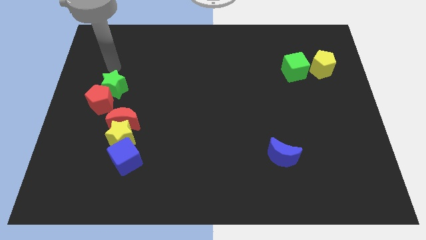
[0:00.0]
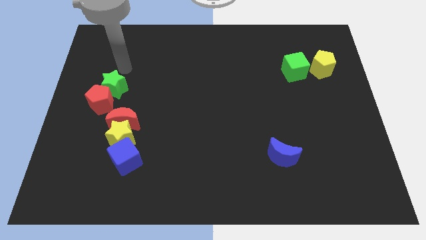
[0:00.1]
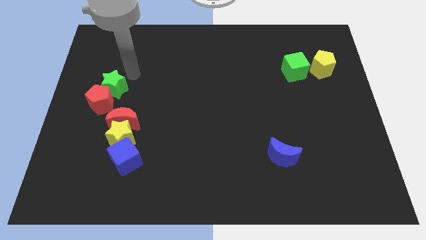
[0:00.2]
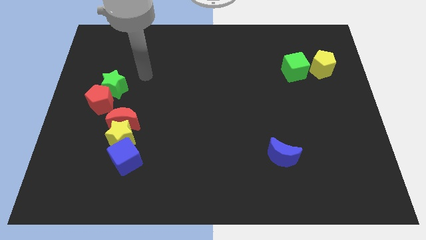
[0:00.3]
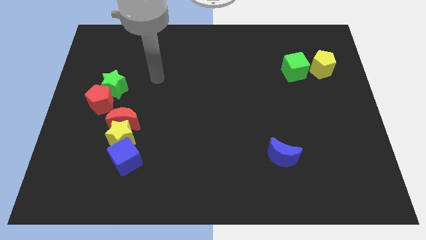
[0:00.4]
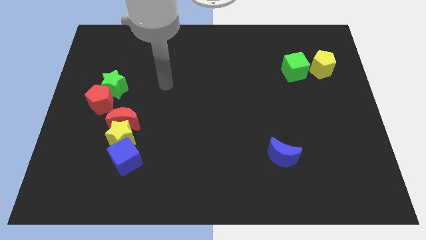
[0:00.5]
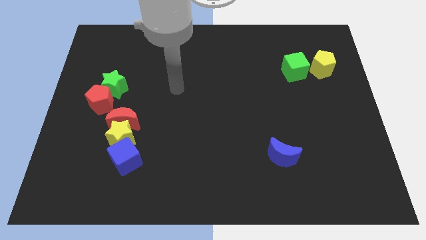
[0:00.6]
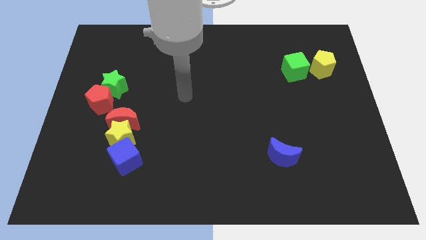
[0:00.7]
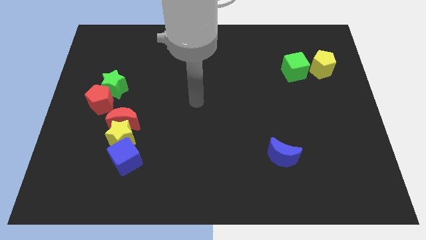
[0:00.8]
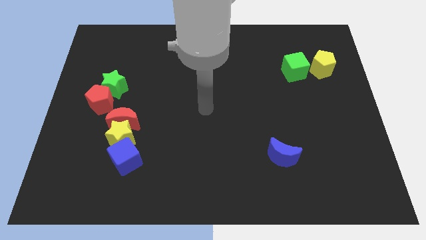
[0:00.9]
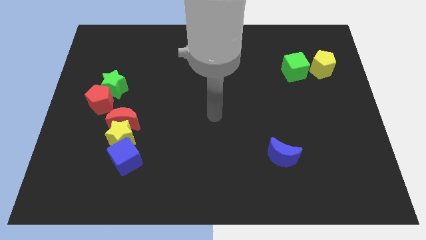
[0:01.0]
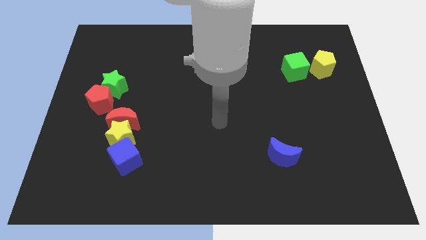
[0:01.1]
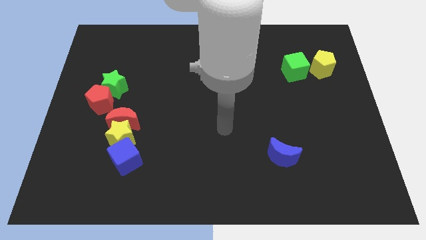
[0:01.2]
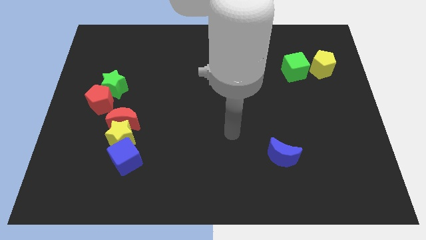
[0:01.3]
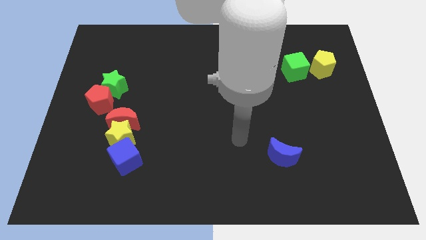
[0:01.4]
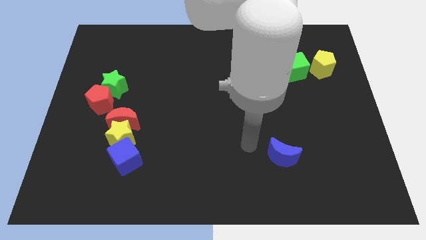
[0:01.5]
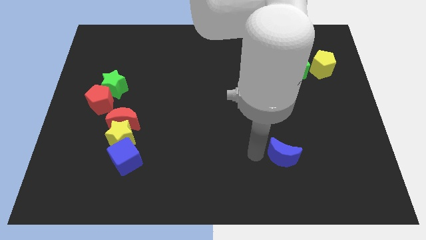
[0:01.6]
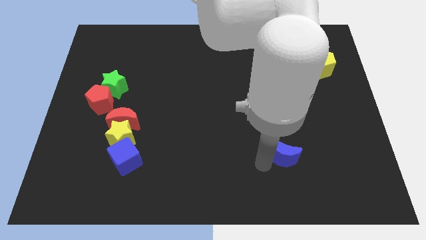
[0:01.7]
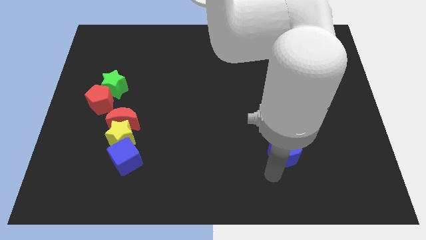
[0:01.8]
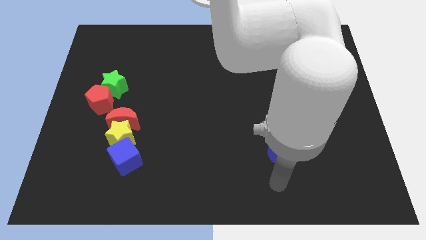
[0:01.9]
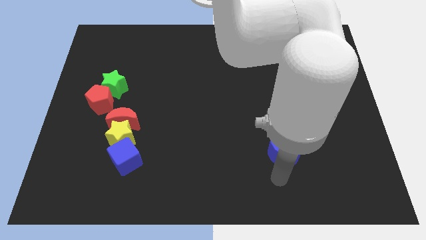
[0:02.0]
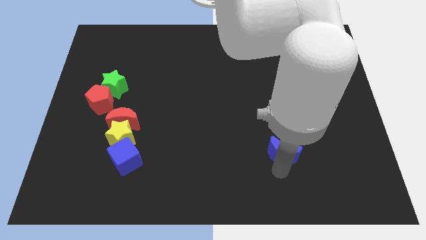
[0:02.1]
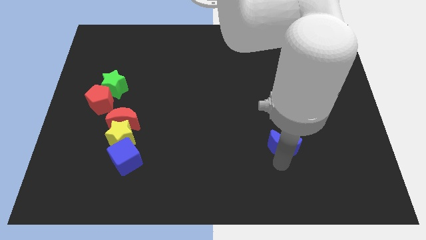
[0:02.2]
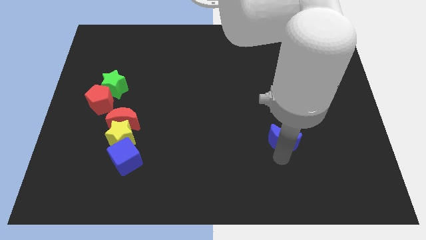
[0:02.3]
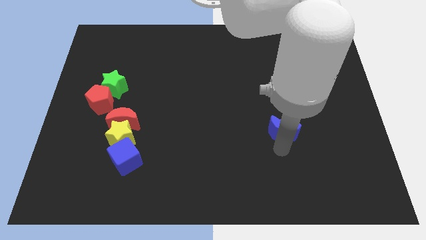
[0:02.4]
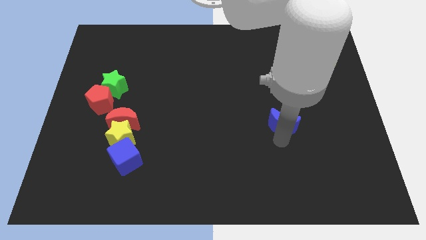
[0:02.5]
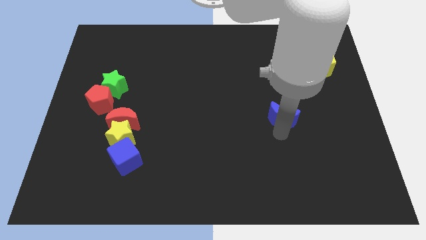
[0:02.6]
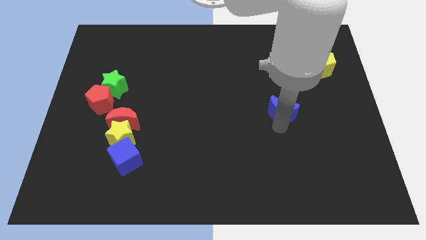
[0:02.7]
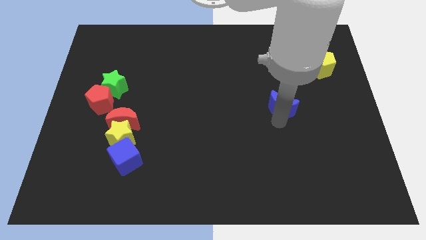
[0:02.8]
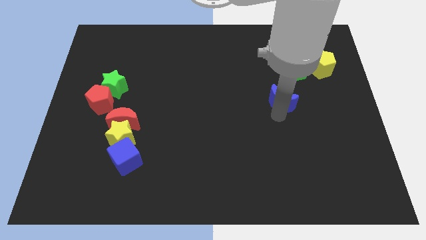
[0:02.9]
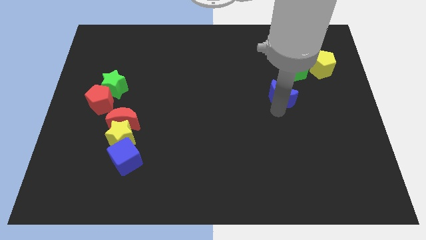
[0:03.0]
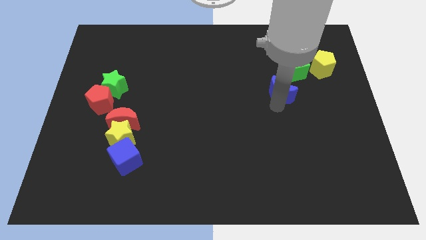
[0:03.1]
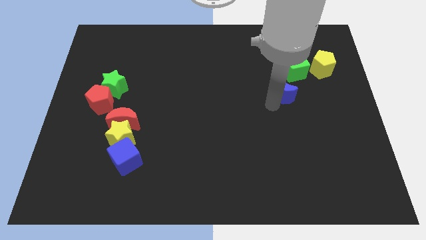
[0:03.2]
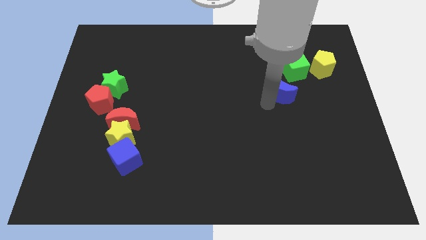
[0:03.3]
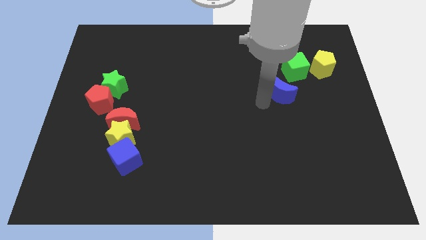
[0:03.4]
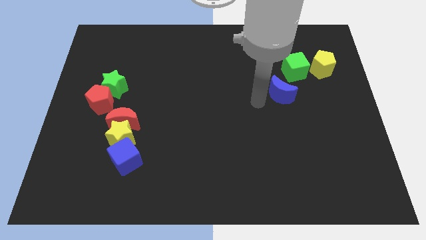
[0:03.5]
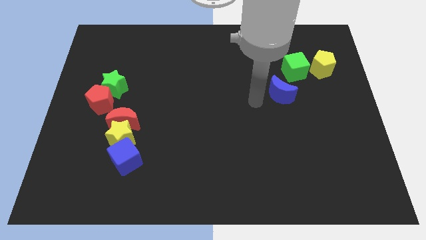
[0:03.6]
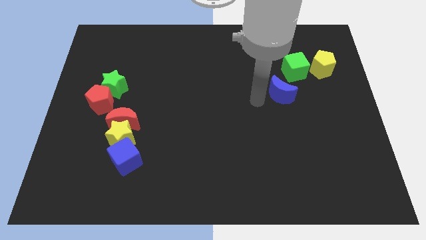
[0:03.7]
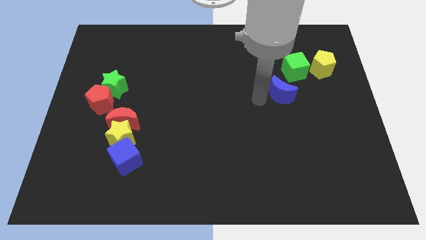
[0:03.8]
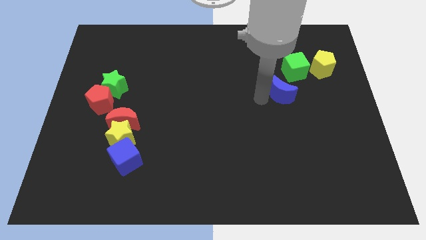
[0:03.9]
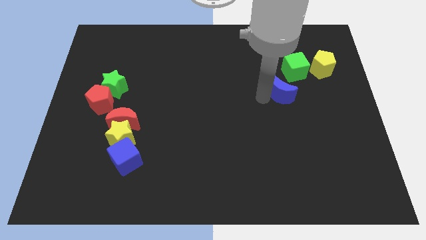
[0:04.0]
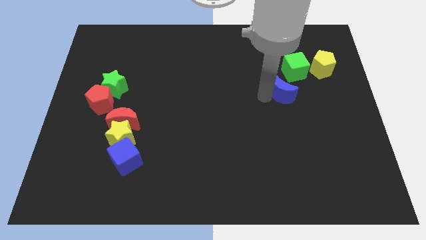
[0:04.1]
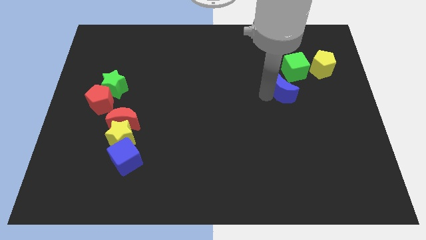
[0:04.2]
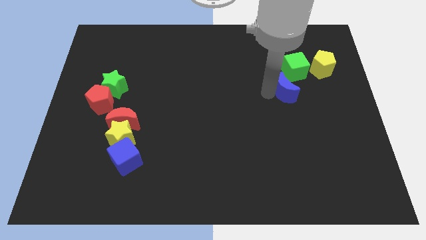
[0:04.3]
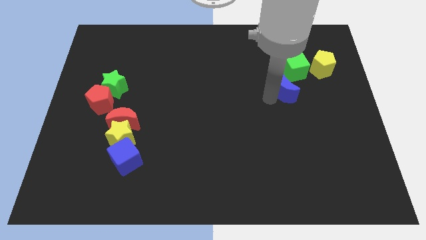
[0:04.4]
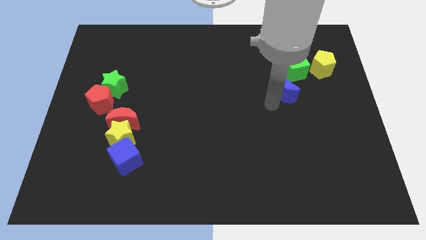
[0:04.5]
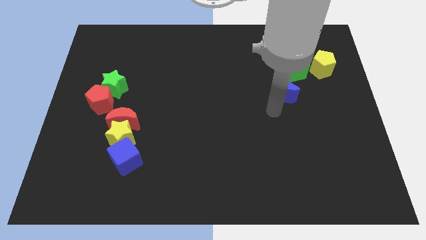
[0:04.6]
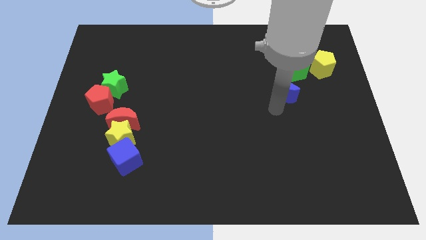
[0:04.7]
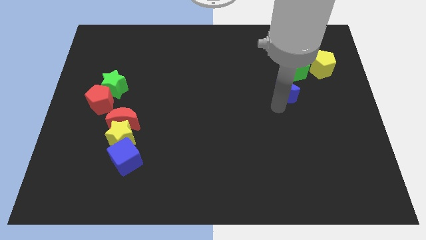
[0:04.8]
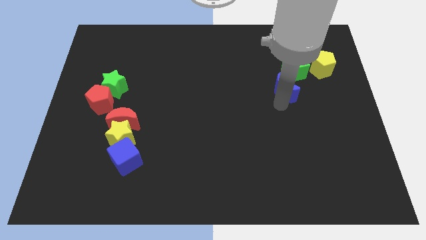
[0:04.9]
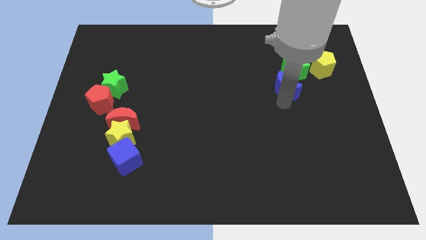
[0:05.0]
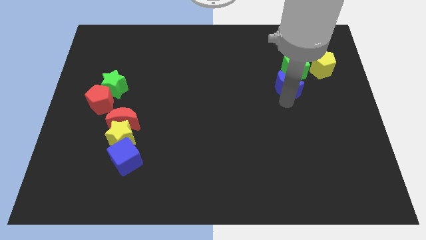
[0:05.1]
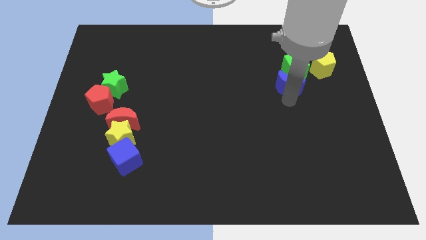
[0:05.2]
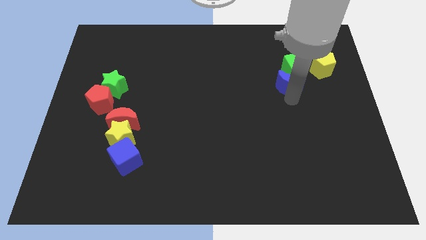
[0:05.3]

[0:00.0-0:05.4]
move the blue moon towards the green cube

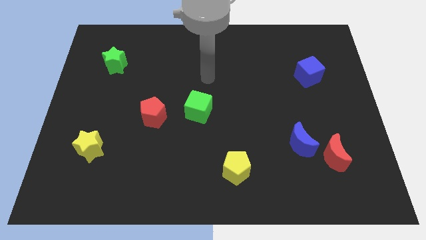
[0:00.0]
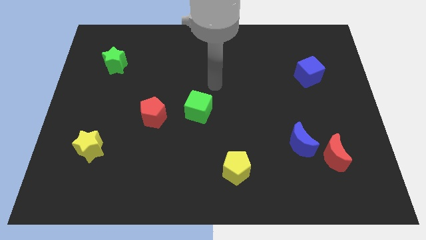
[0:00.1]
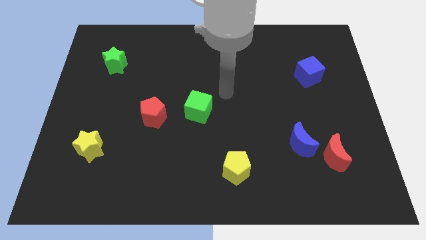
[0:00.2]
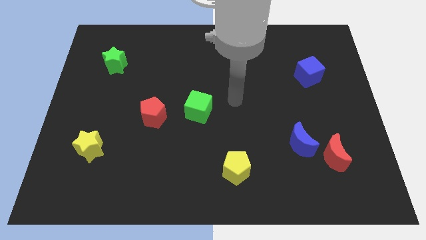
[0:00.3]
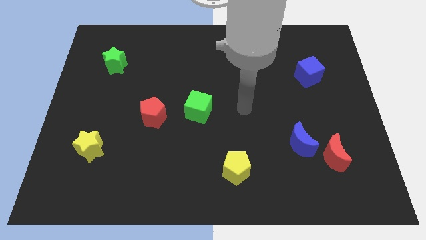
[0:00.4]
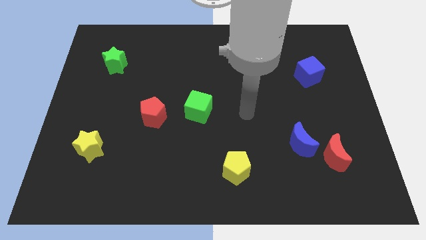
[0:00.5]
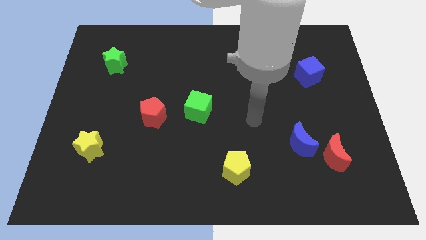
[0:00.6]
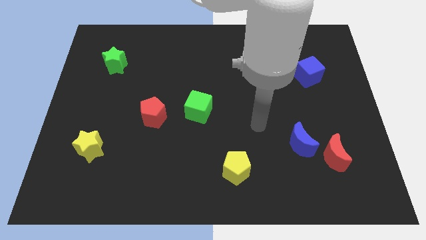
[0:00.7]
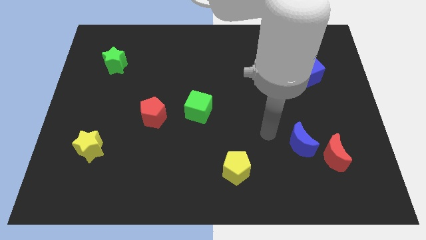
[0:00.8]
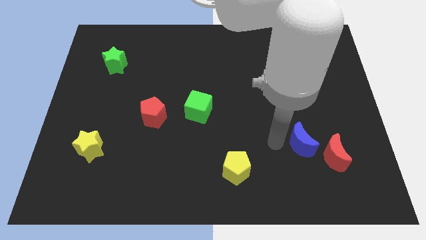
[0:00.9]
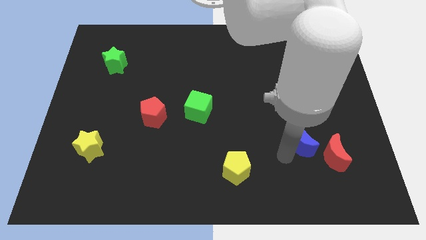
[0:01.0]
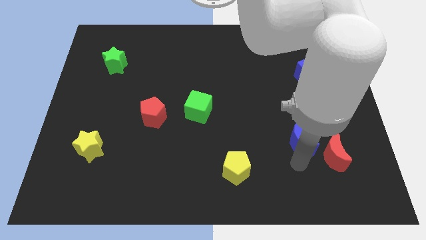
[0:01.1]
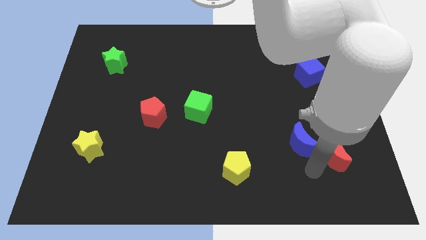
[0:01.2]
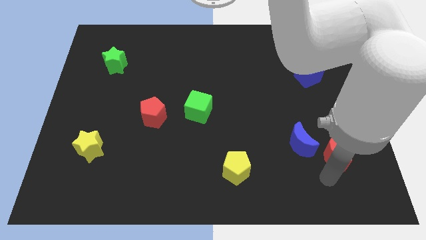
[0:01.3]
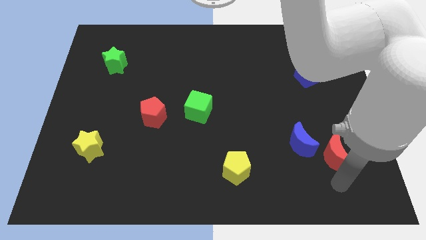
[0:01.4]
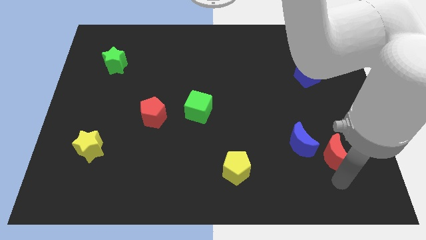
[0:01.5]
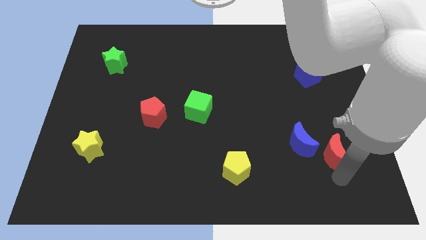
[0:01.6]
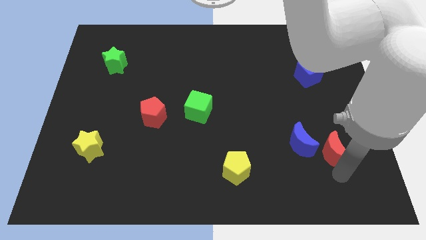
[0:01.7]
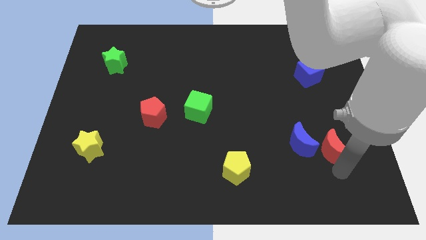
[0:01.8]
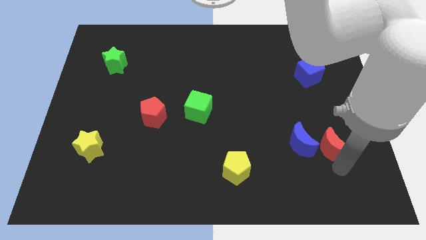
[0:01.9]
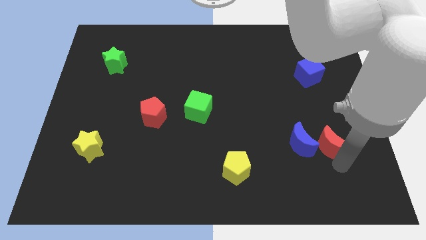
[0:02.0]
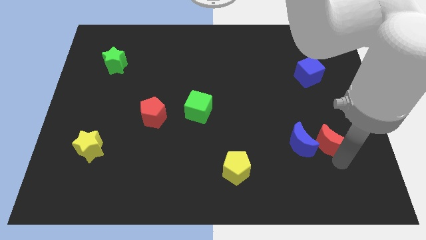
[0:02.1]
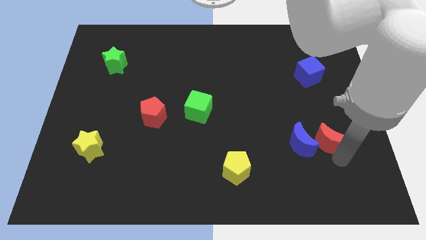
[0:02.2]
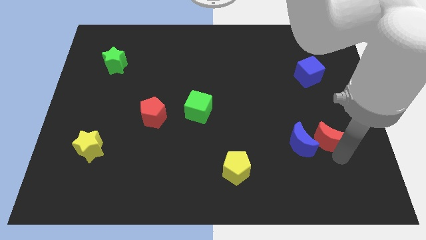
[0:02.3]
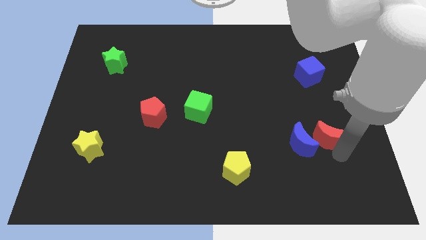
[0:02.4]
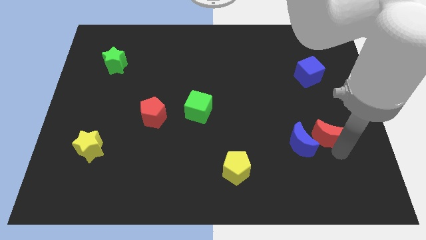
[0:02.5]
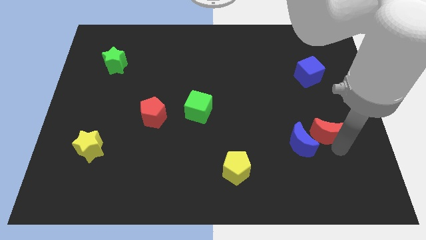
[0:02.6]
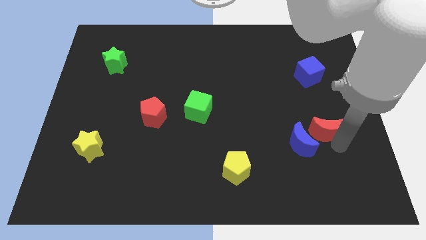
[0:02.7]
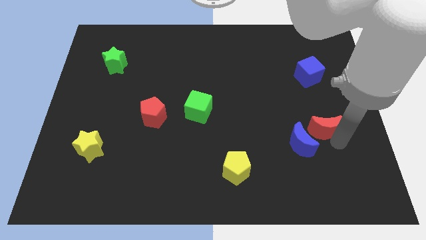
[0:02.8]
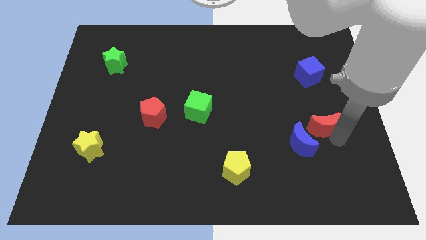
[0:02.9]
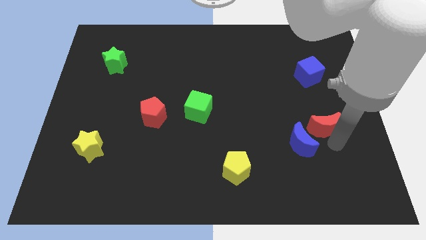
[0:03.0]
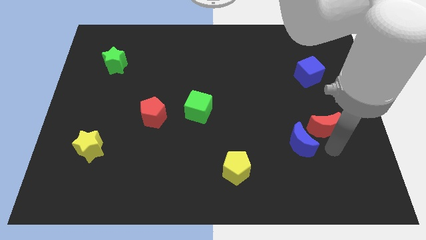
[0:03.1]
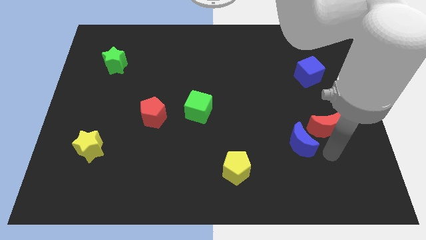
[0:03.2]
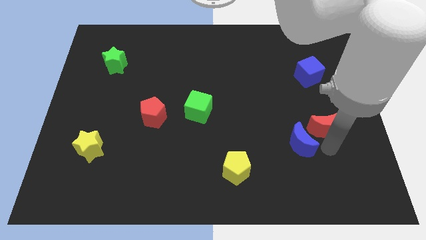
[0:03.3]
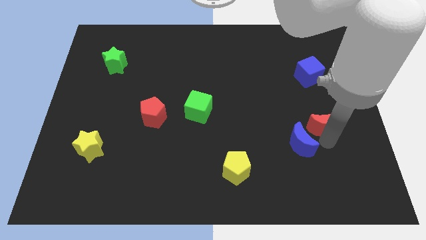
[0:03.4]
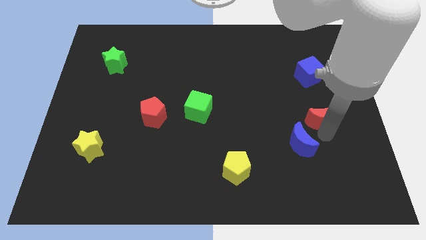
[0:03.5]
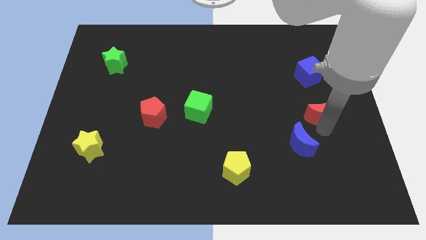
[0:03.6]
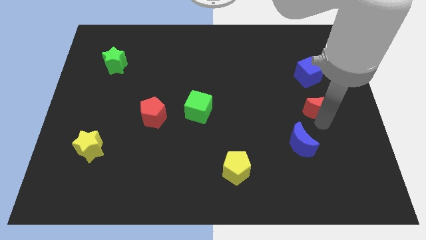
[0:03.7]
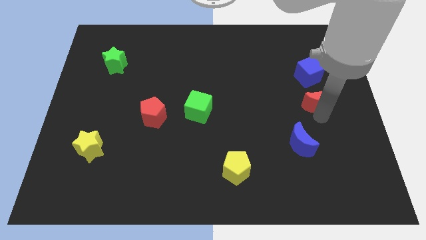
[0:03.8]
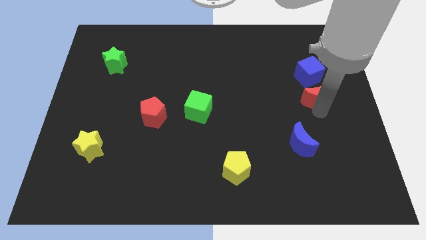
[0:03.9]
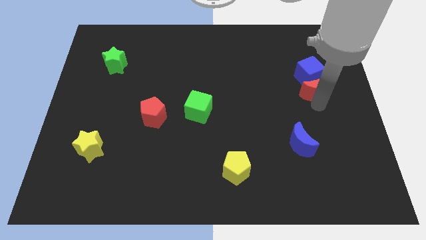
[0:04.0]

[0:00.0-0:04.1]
put the red moon to the blue cube
